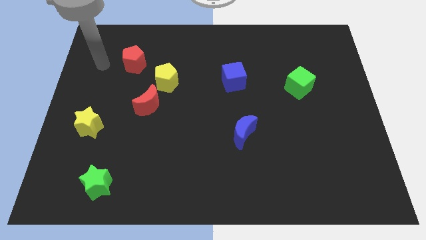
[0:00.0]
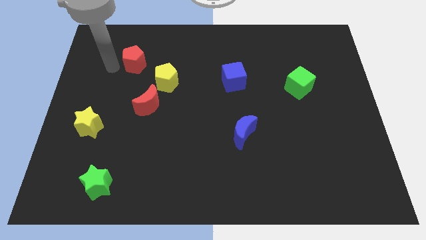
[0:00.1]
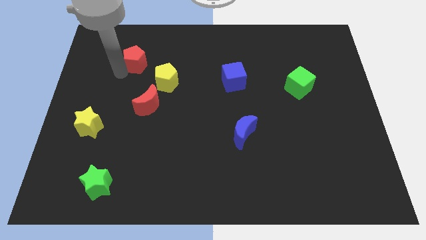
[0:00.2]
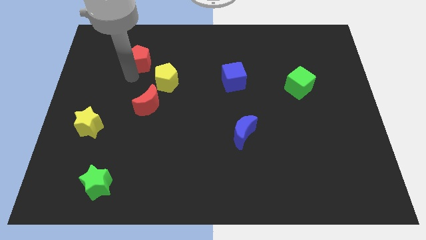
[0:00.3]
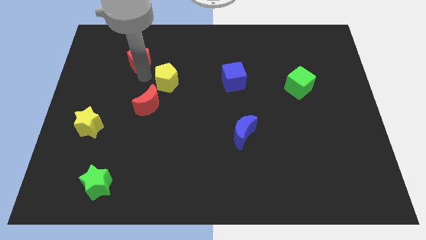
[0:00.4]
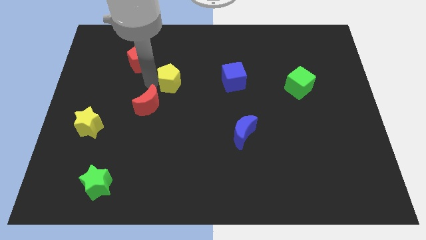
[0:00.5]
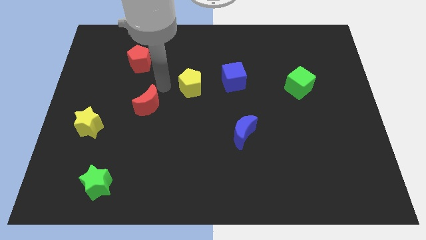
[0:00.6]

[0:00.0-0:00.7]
pull the red moon apart from the yellow pentagon

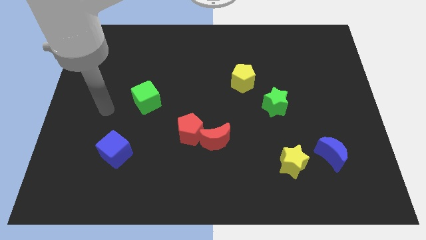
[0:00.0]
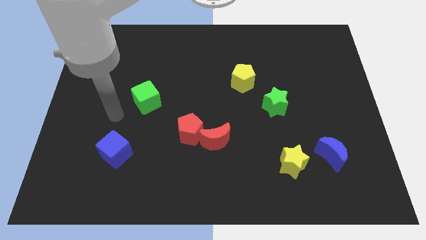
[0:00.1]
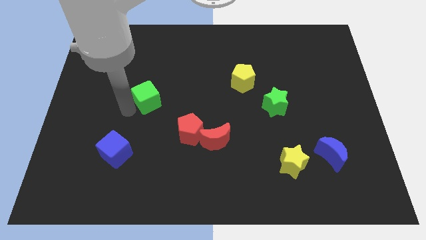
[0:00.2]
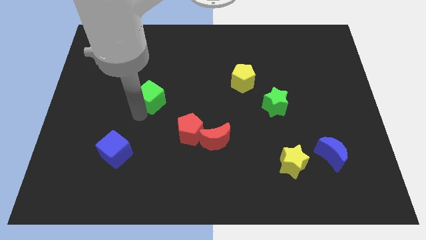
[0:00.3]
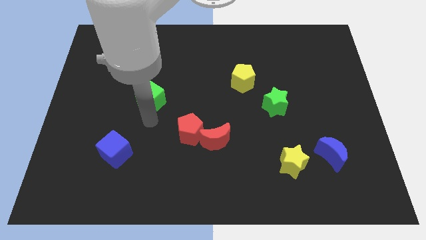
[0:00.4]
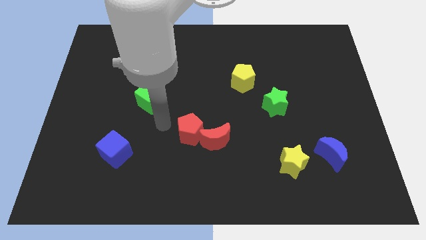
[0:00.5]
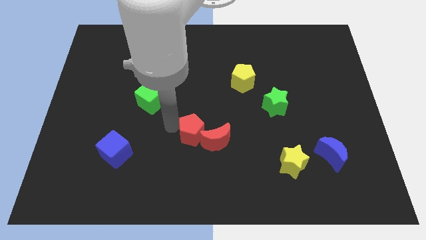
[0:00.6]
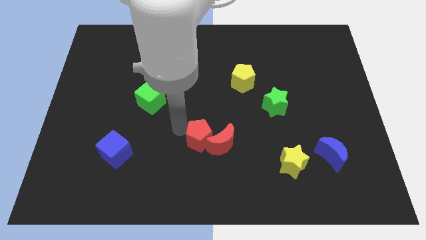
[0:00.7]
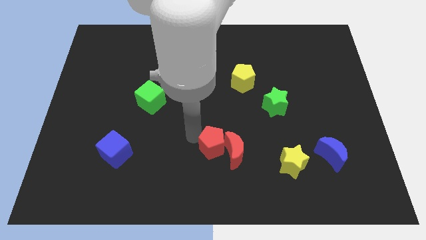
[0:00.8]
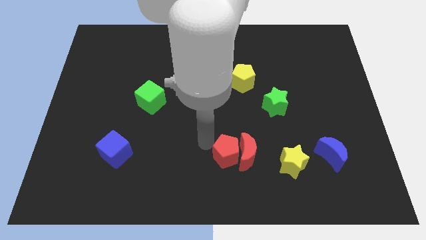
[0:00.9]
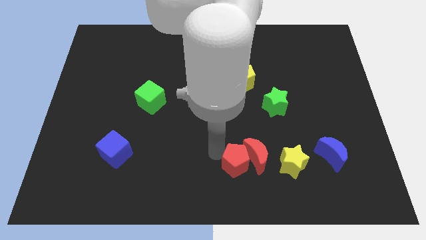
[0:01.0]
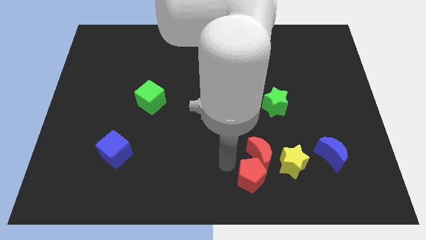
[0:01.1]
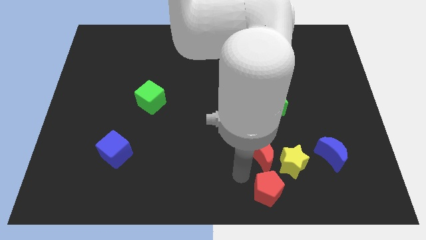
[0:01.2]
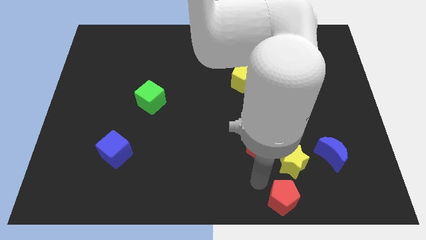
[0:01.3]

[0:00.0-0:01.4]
pull the red moon apart from the red pentagon

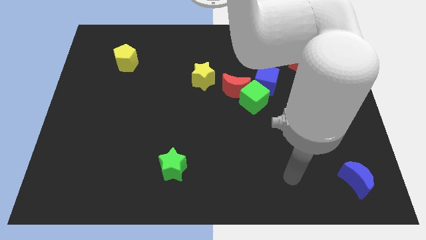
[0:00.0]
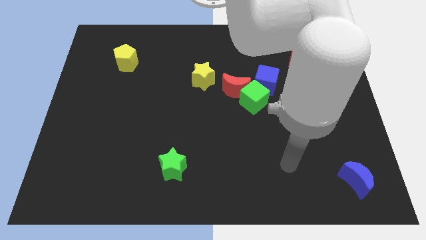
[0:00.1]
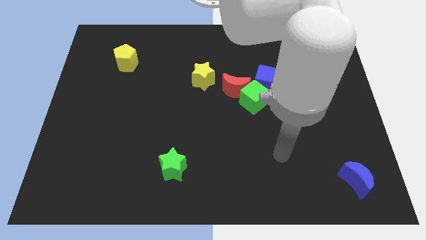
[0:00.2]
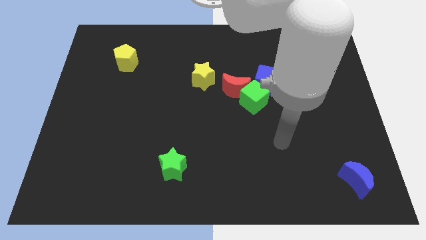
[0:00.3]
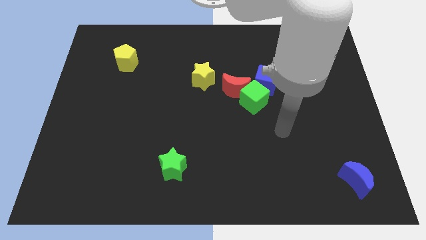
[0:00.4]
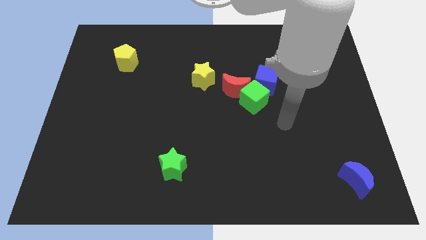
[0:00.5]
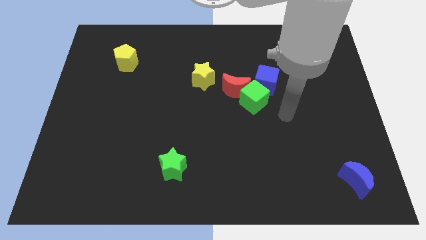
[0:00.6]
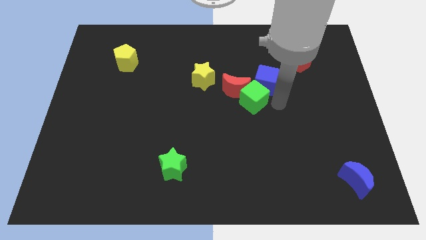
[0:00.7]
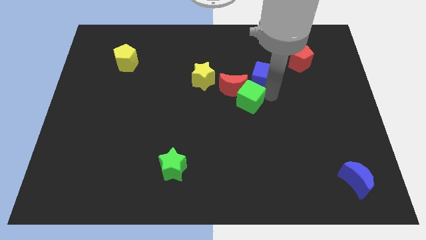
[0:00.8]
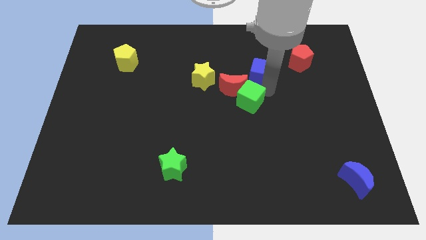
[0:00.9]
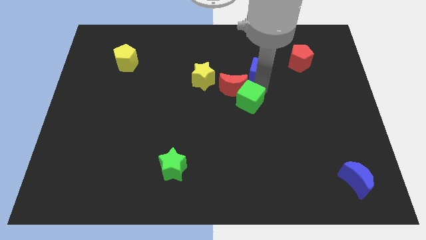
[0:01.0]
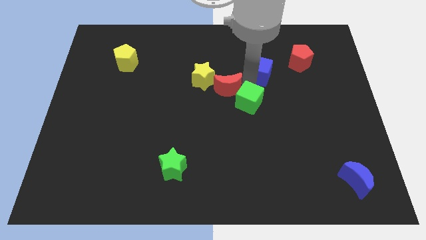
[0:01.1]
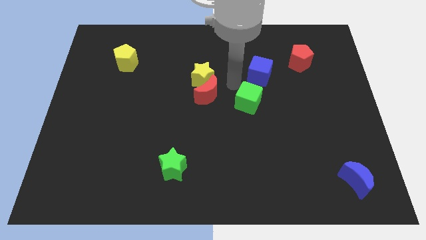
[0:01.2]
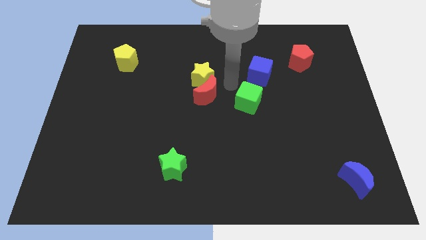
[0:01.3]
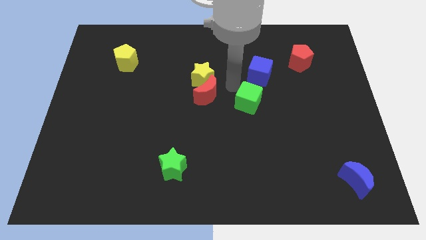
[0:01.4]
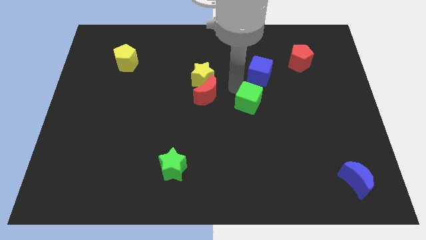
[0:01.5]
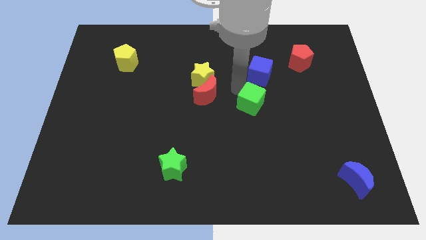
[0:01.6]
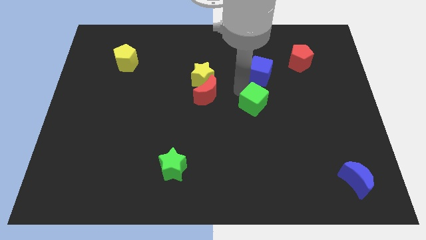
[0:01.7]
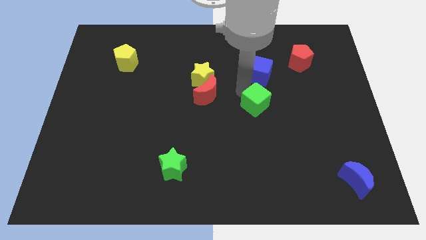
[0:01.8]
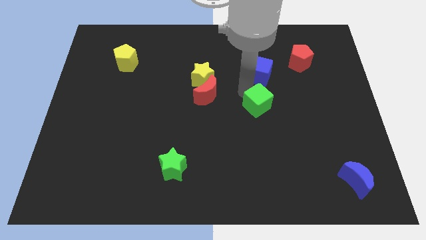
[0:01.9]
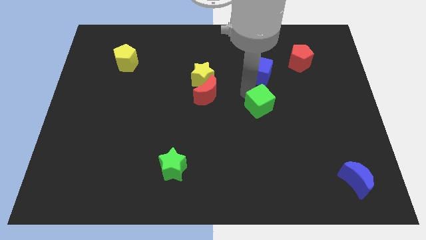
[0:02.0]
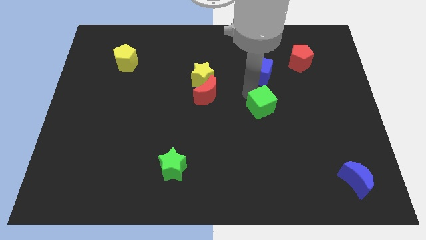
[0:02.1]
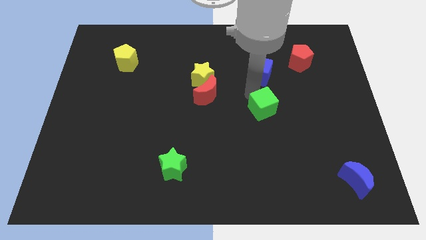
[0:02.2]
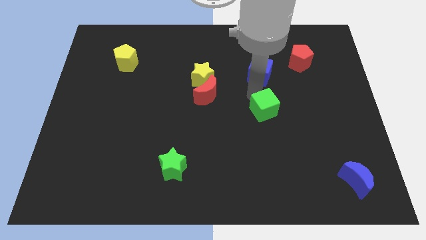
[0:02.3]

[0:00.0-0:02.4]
pull the green cube apart from the red moon and blue cube

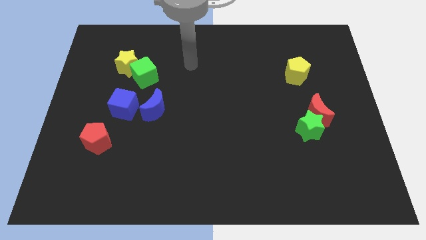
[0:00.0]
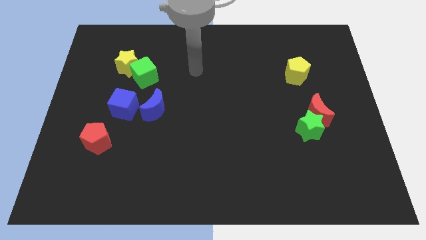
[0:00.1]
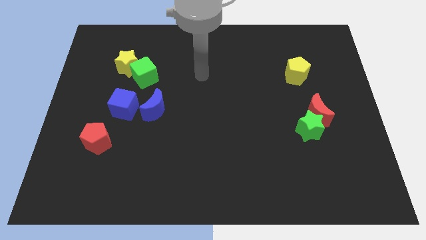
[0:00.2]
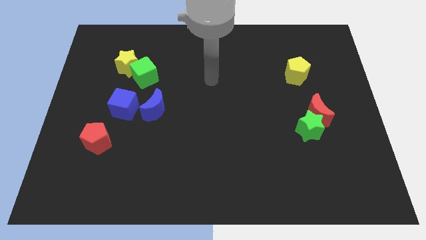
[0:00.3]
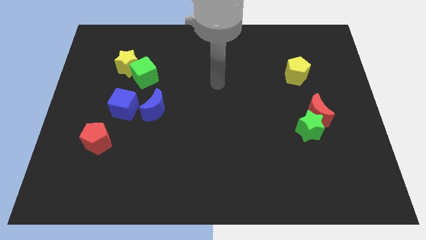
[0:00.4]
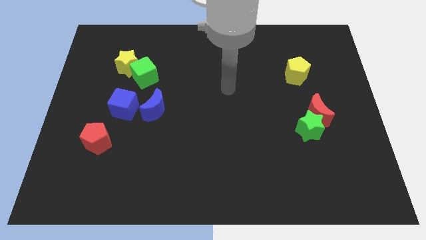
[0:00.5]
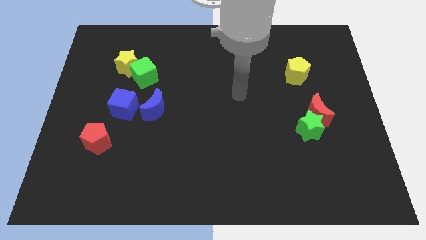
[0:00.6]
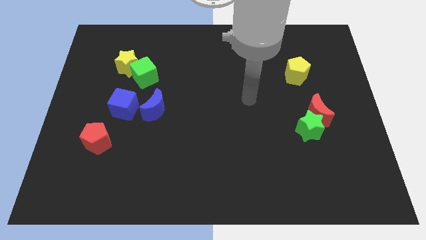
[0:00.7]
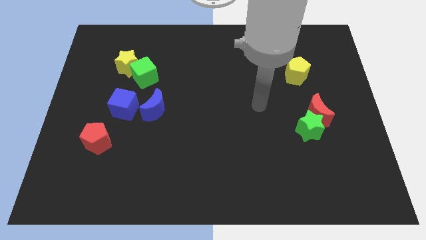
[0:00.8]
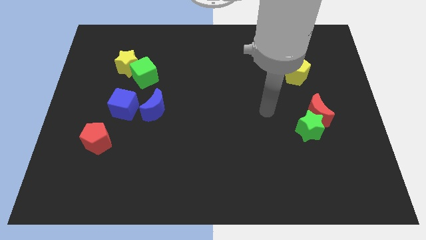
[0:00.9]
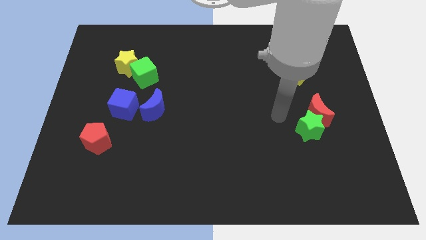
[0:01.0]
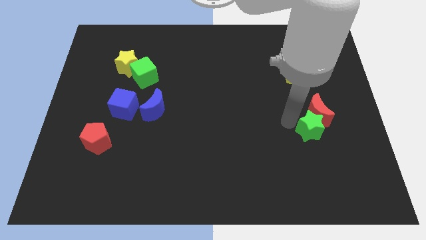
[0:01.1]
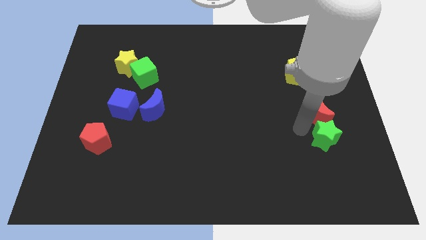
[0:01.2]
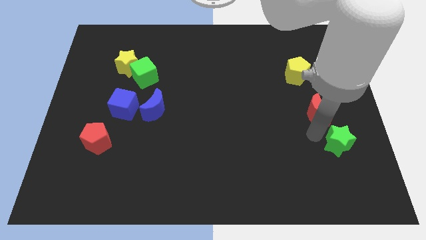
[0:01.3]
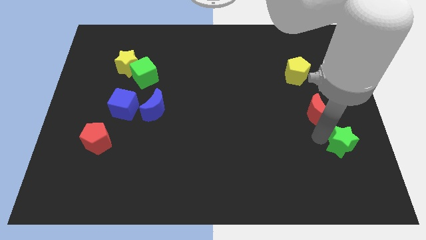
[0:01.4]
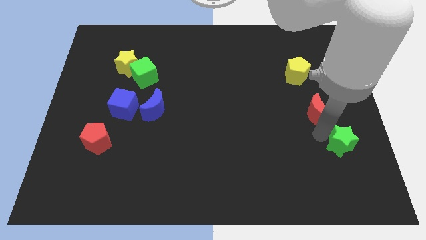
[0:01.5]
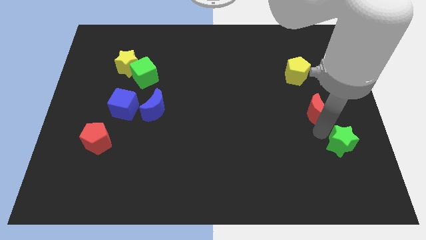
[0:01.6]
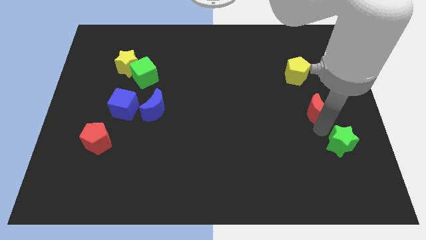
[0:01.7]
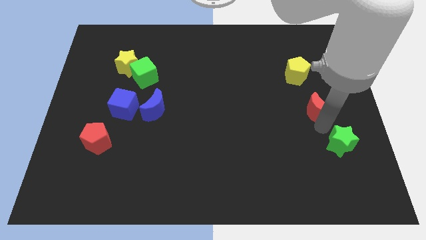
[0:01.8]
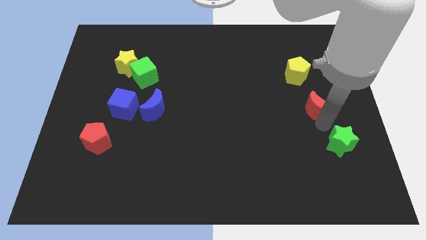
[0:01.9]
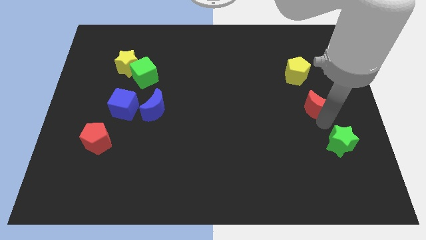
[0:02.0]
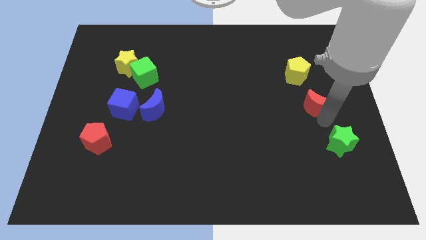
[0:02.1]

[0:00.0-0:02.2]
move the red moon away from the green star

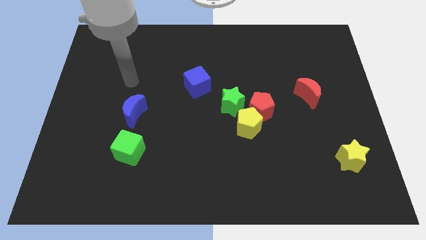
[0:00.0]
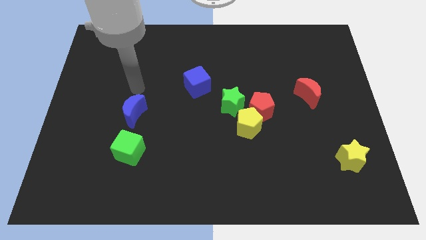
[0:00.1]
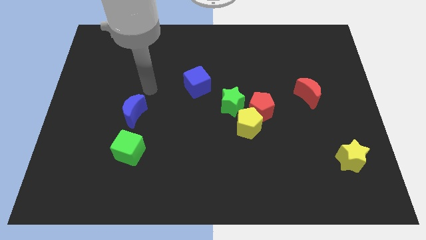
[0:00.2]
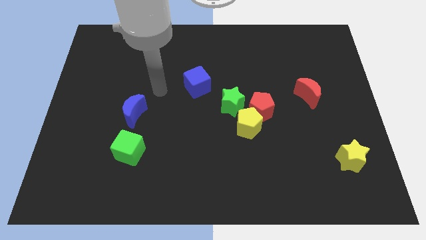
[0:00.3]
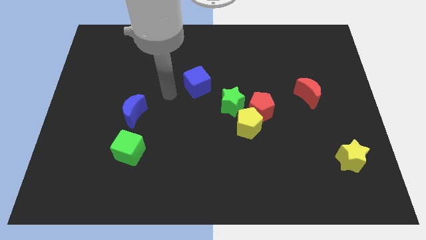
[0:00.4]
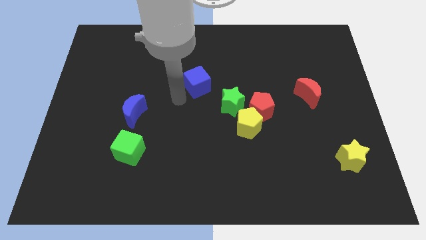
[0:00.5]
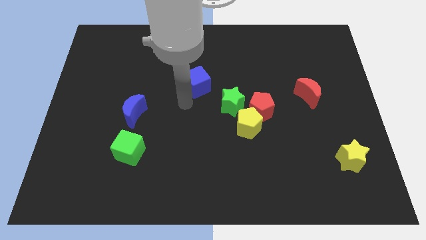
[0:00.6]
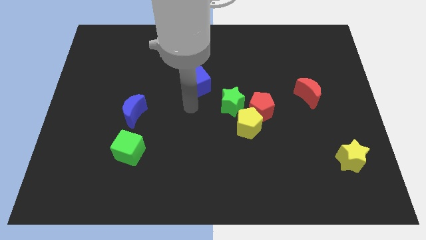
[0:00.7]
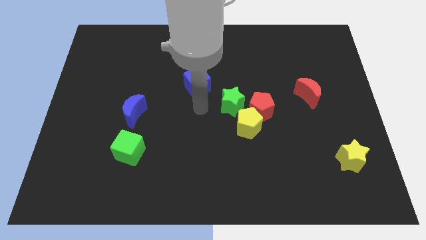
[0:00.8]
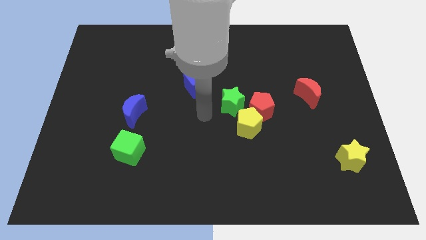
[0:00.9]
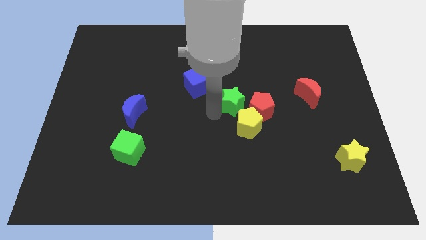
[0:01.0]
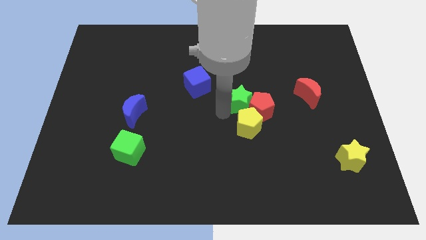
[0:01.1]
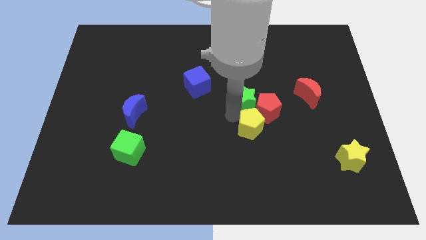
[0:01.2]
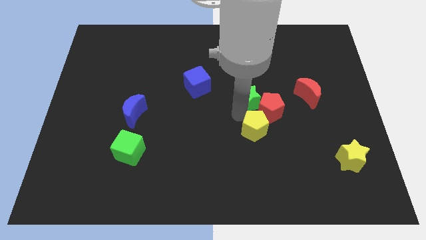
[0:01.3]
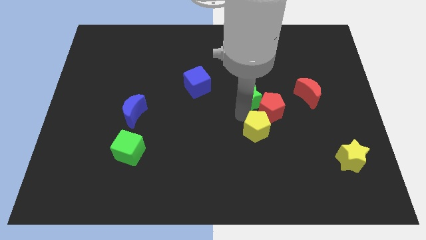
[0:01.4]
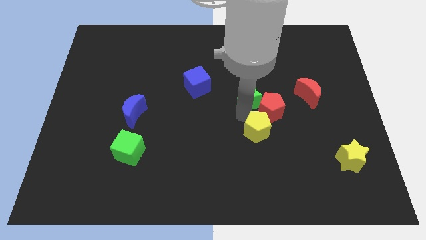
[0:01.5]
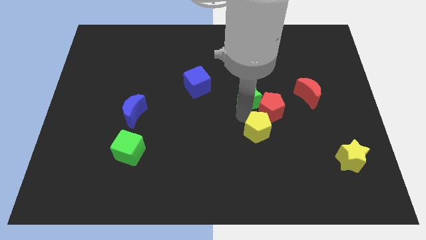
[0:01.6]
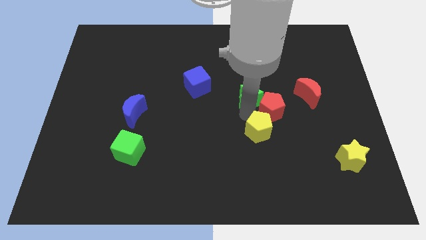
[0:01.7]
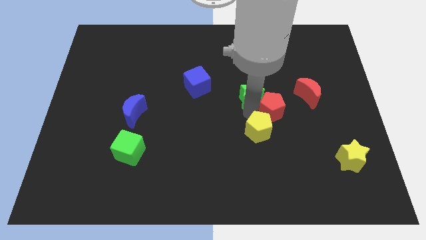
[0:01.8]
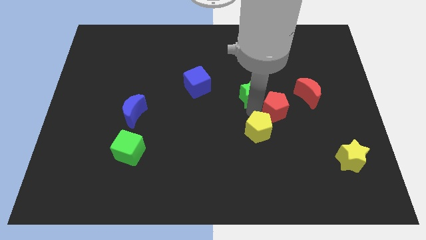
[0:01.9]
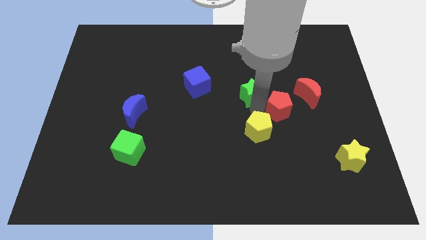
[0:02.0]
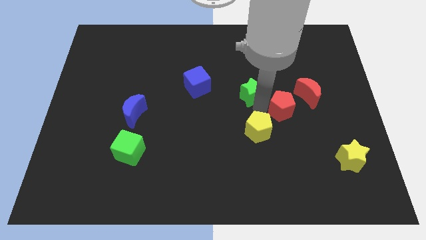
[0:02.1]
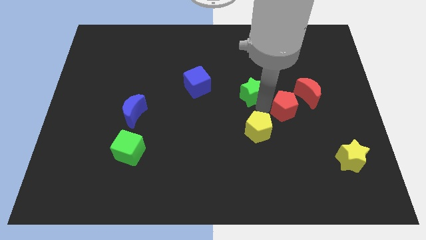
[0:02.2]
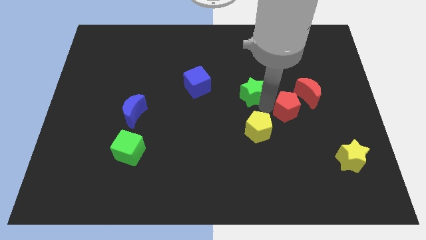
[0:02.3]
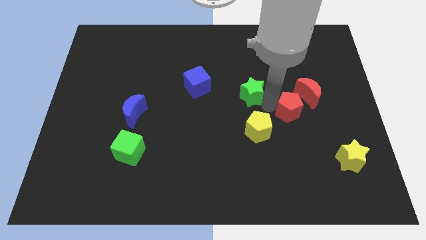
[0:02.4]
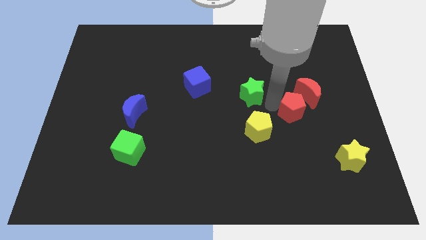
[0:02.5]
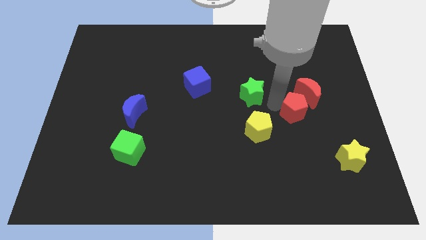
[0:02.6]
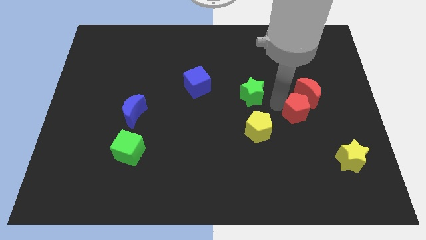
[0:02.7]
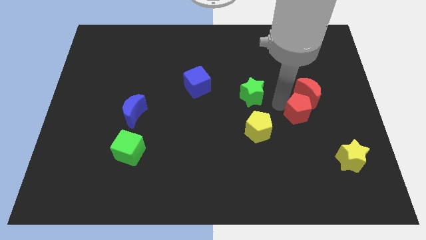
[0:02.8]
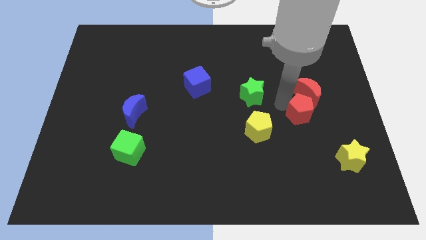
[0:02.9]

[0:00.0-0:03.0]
pull the red pentagon apart from the yellow pentagon and green star
